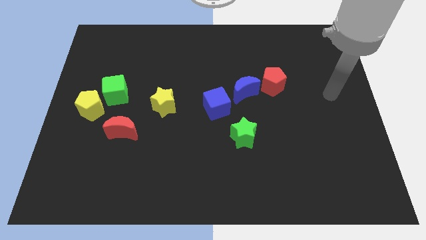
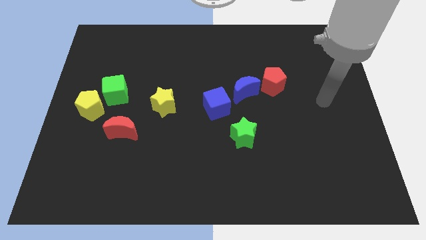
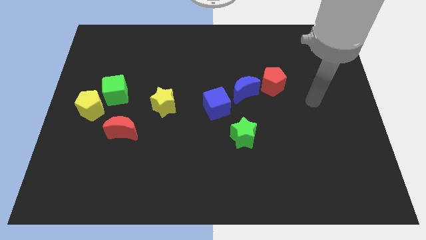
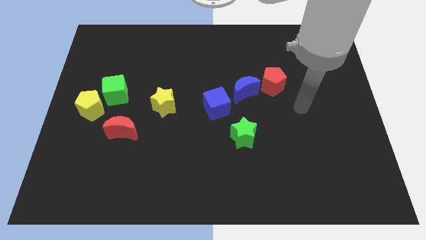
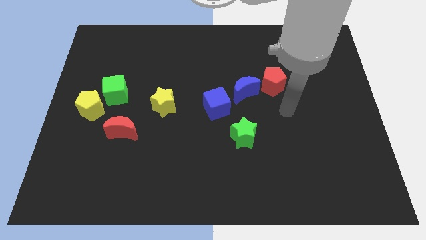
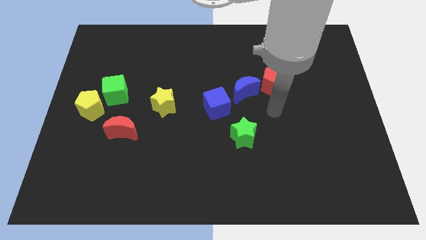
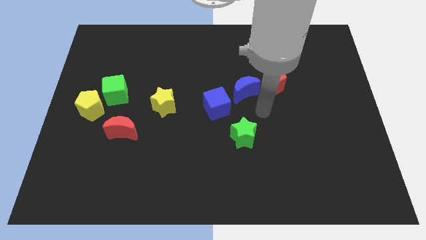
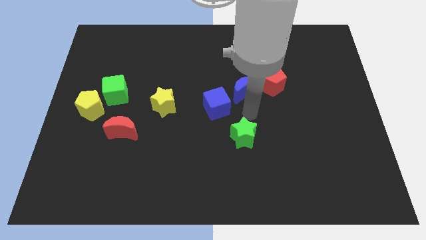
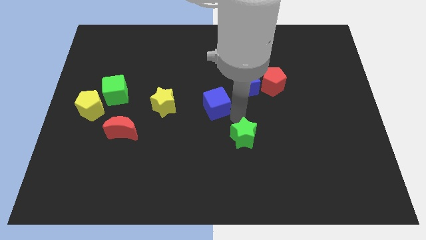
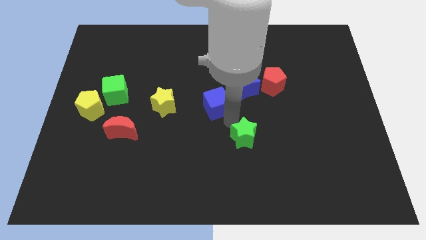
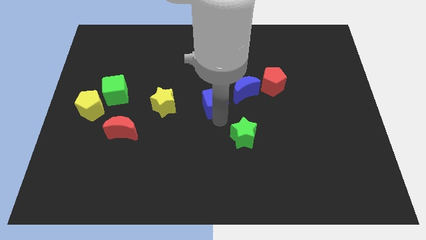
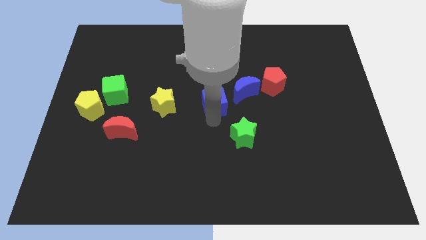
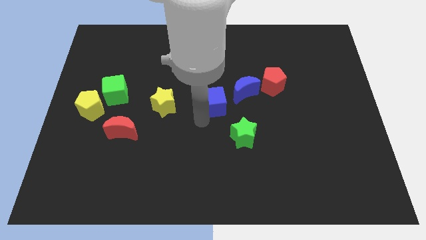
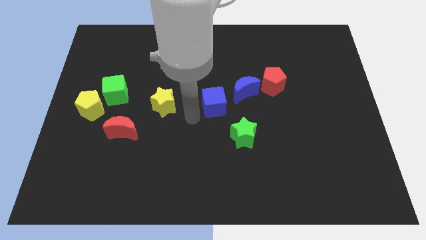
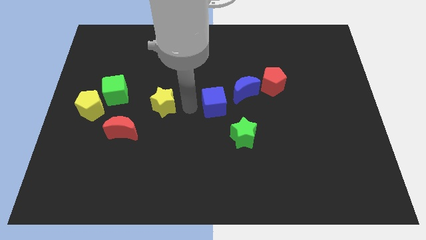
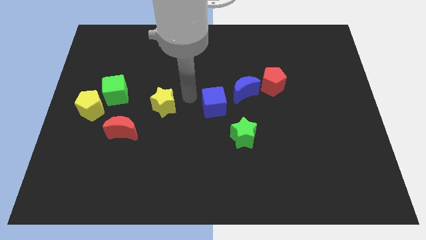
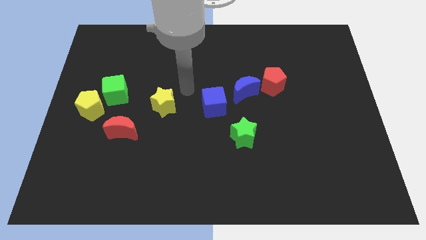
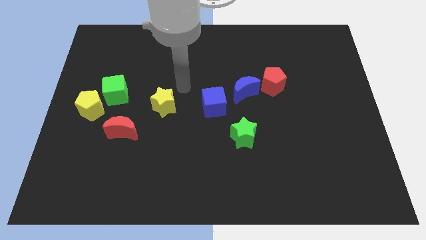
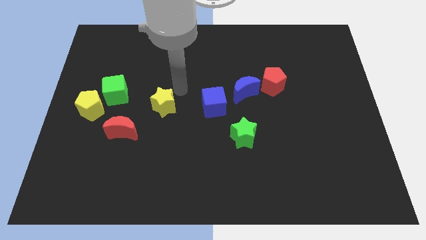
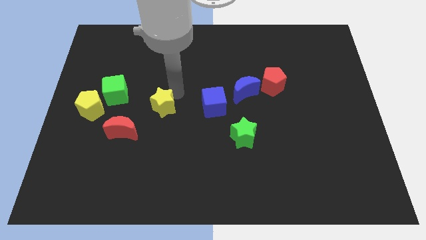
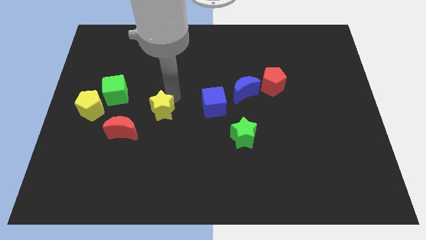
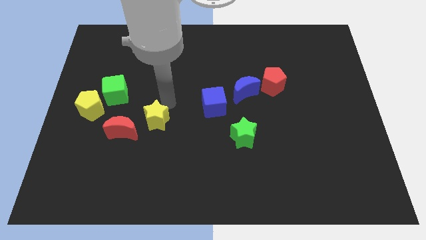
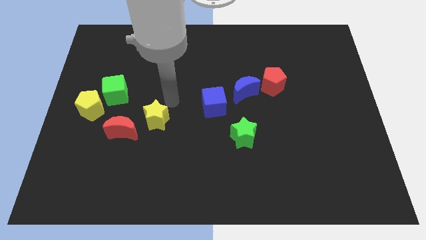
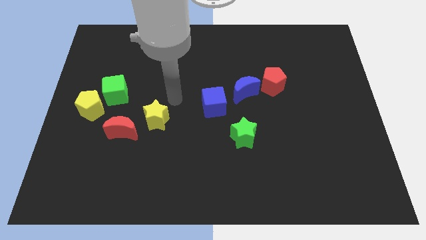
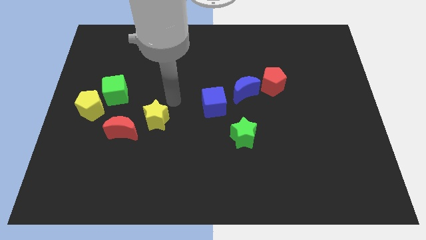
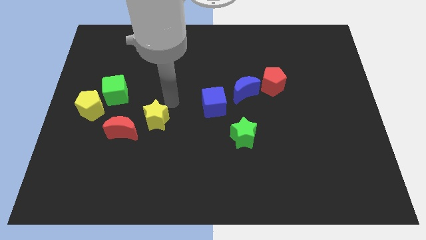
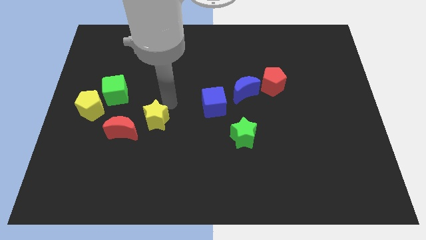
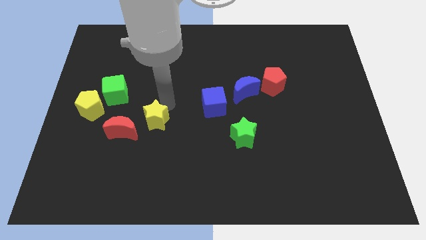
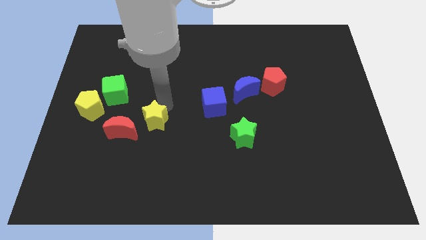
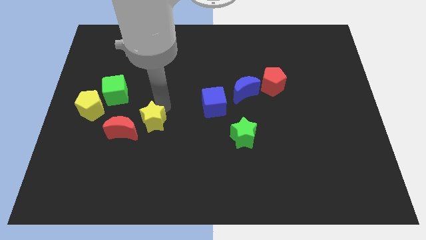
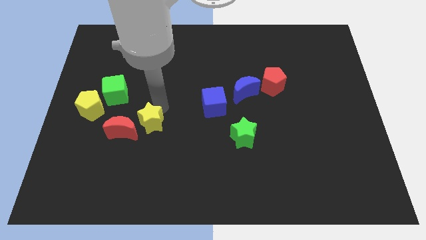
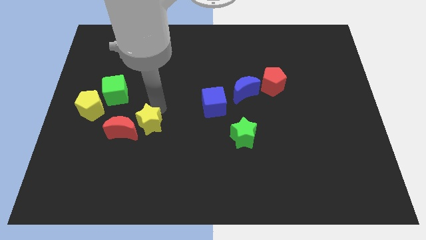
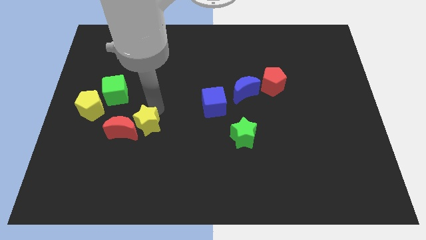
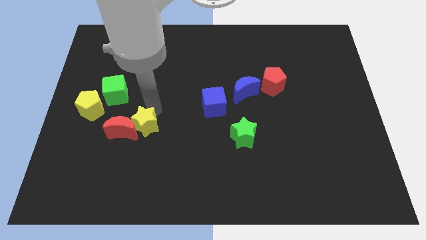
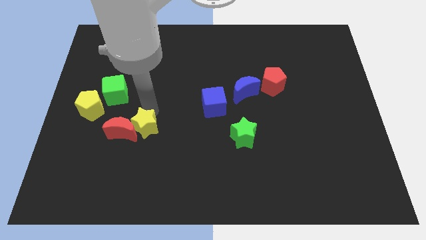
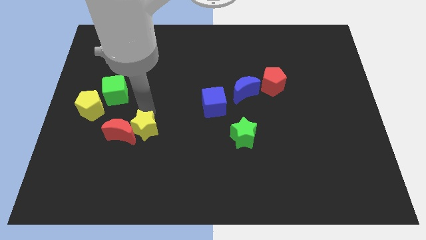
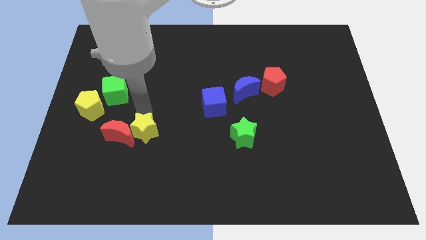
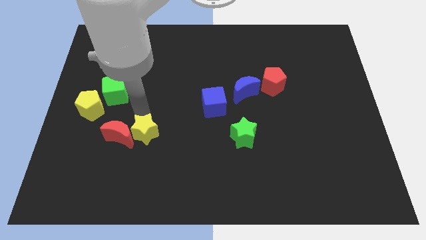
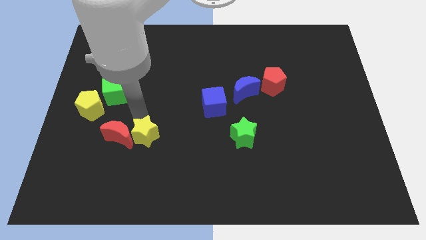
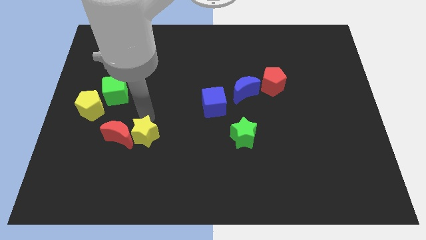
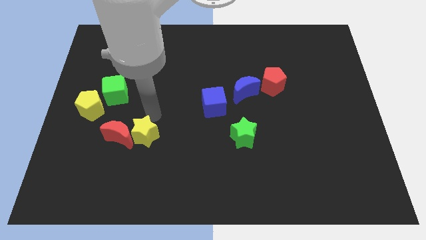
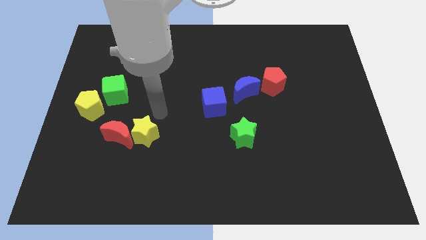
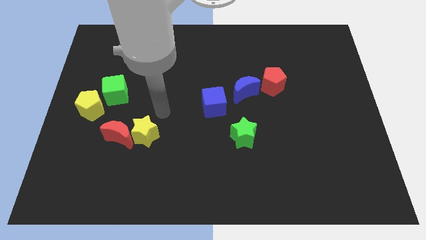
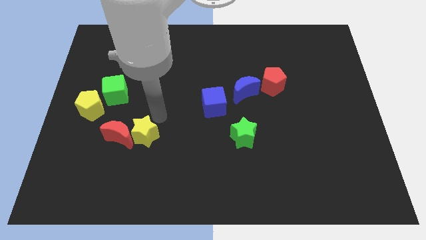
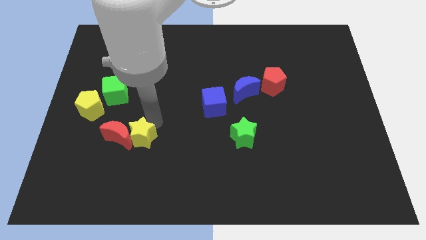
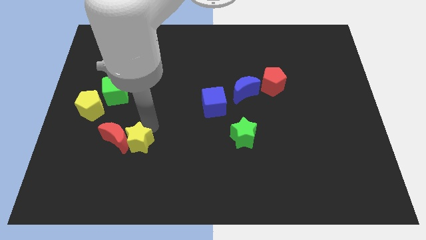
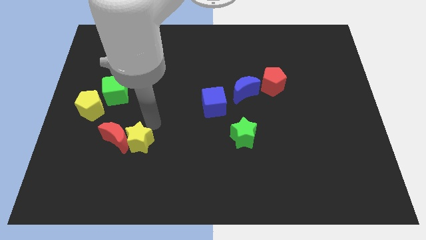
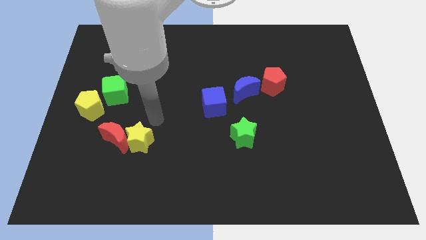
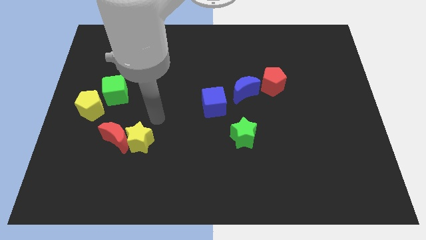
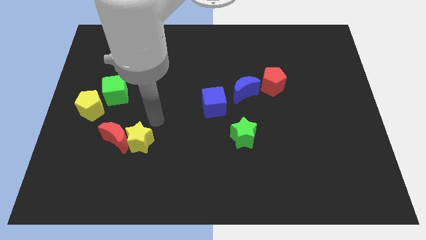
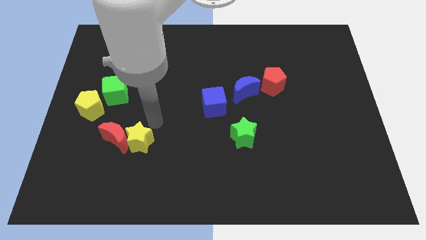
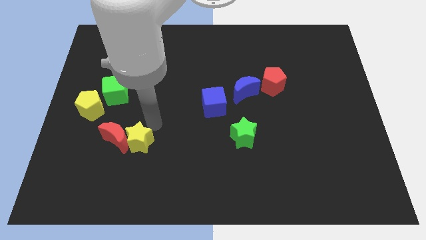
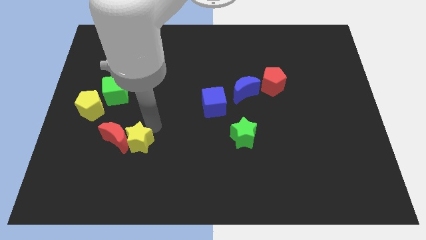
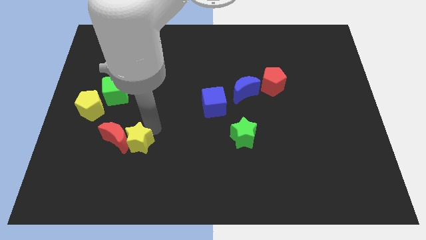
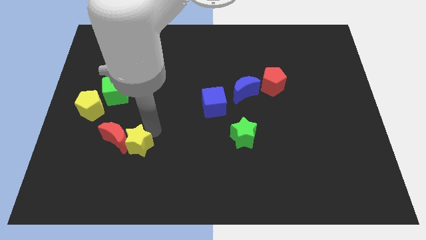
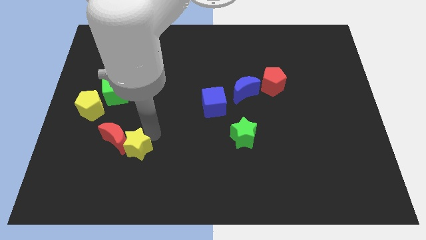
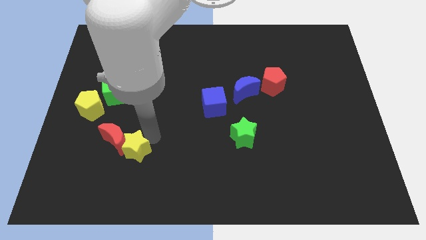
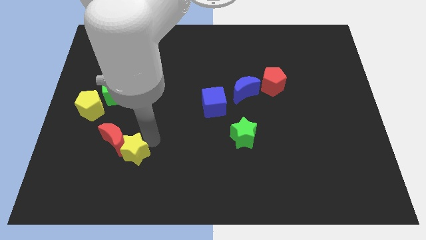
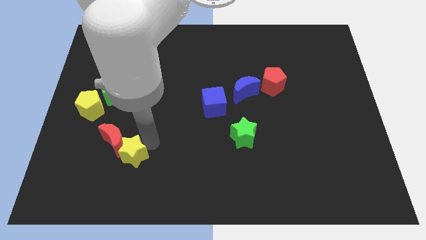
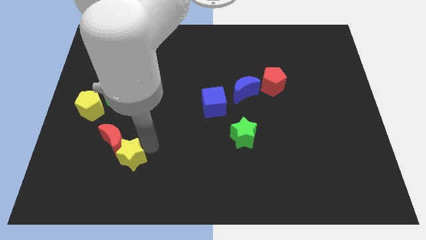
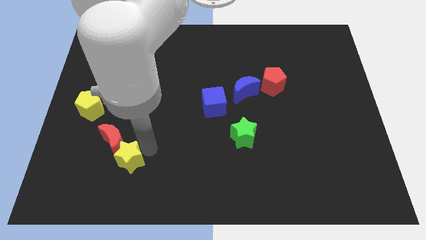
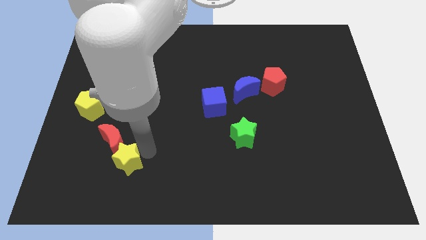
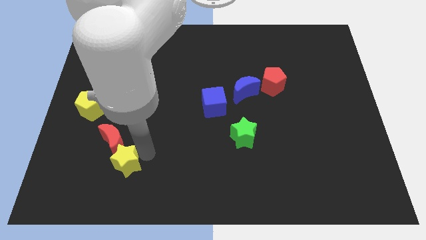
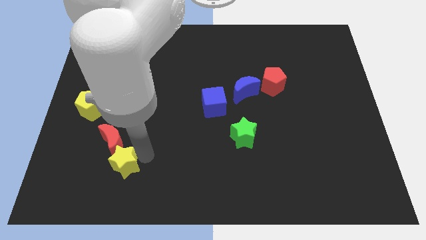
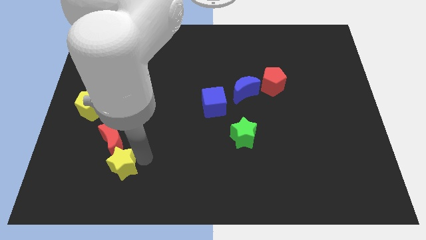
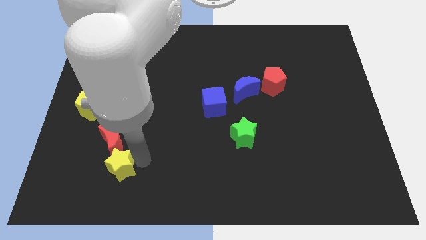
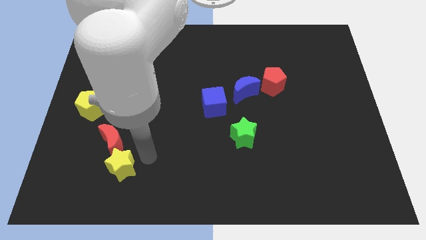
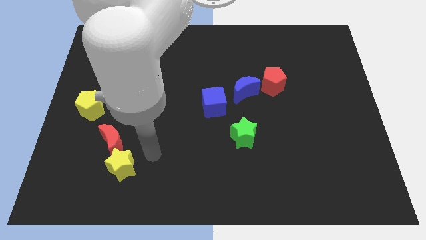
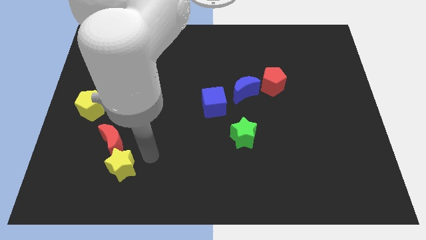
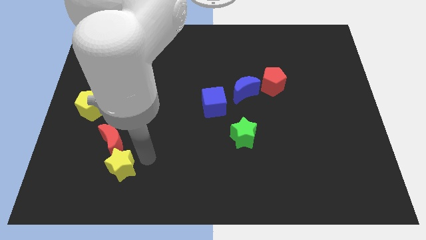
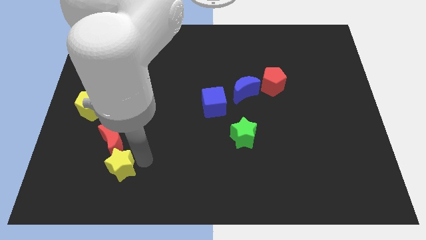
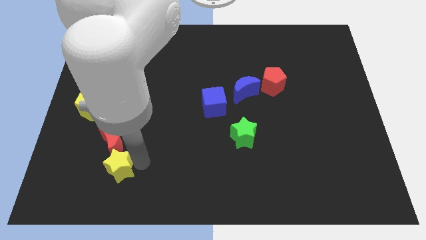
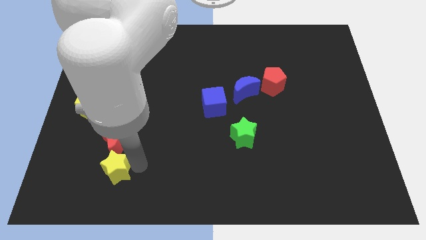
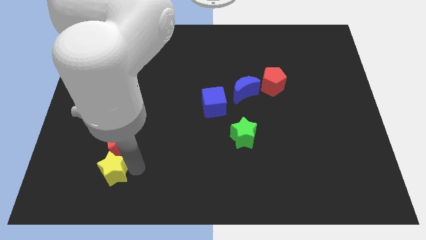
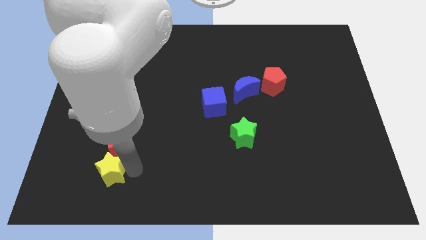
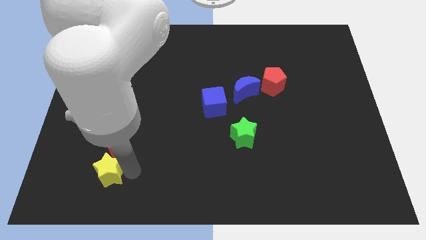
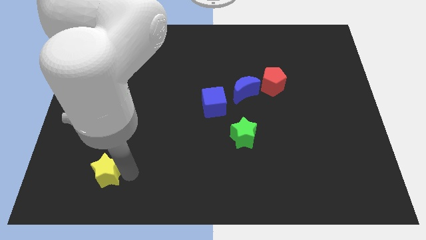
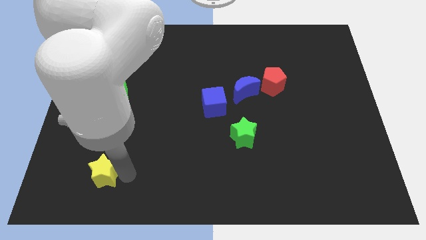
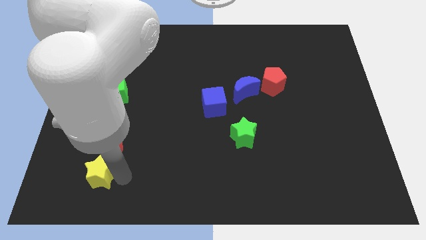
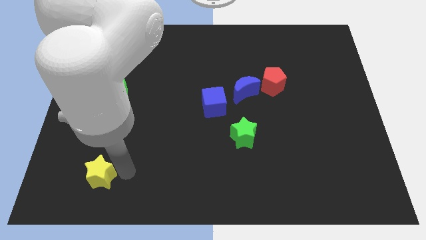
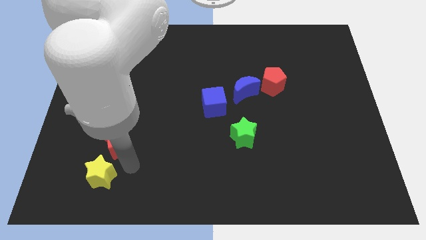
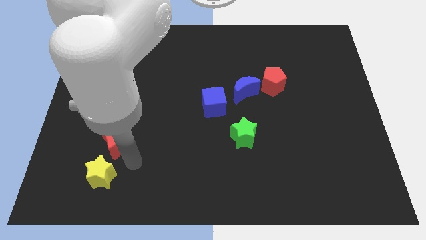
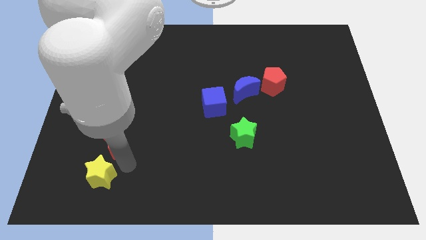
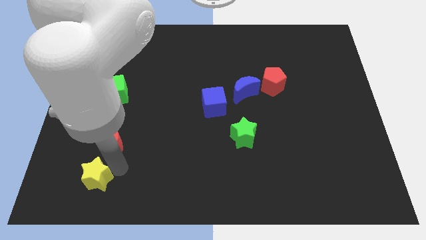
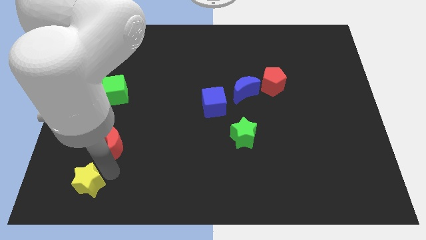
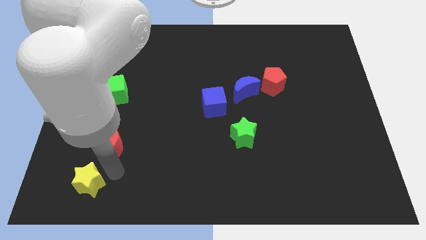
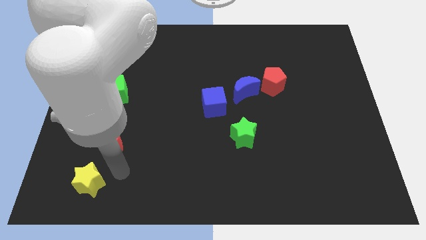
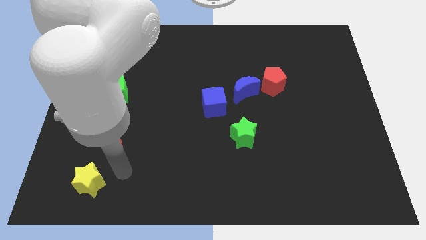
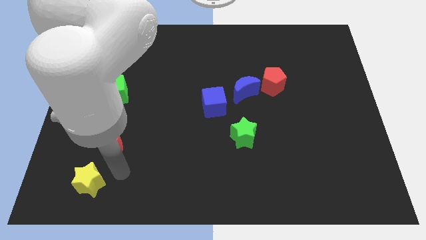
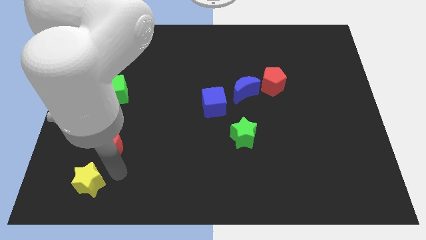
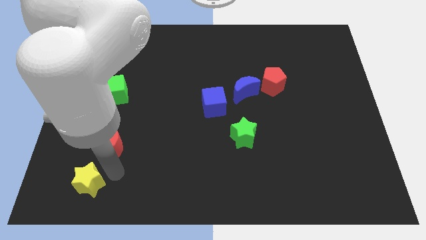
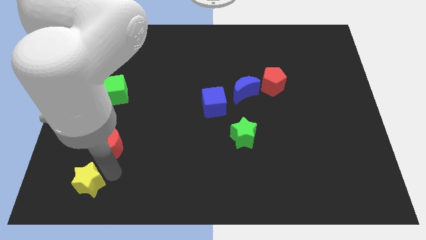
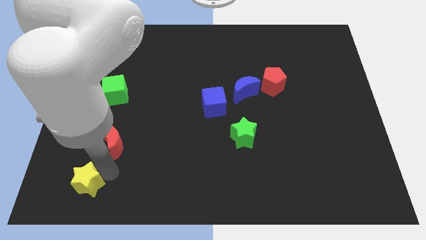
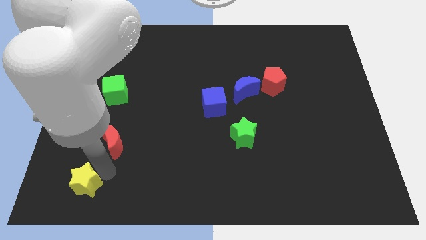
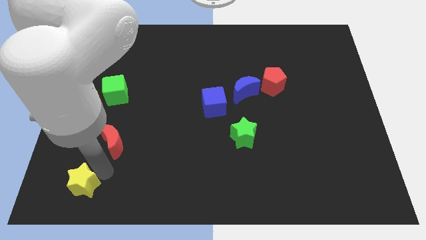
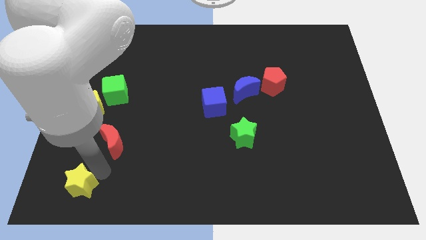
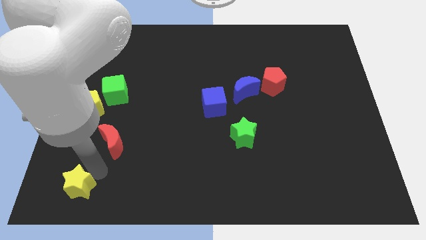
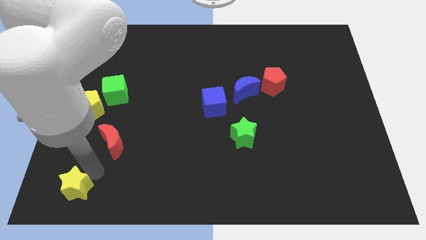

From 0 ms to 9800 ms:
slide the yellow star to the bottom left
